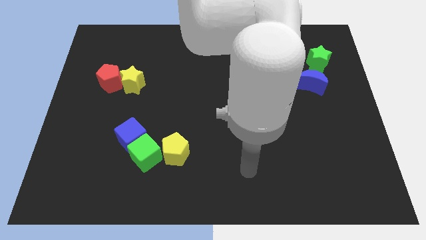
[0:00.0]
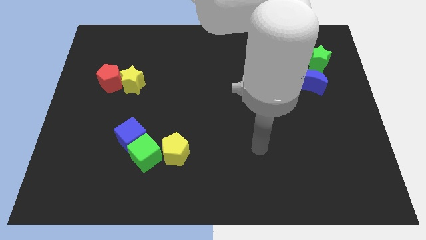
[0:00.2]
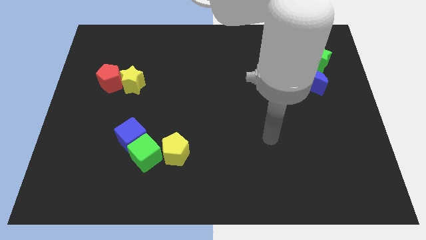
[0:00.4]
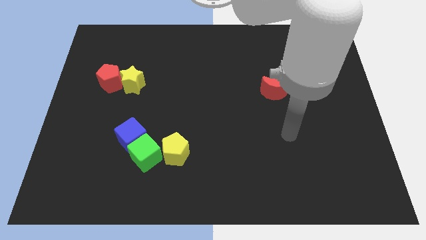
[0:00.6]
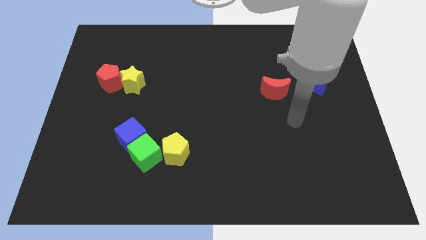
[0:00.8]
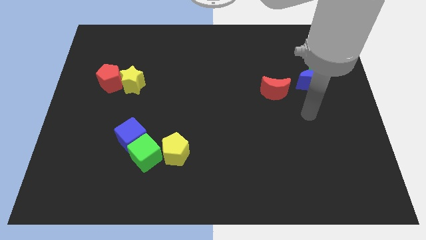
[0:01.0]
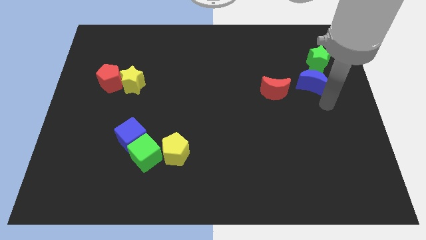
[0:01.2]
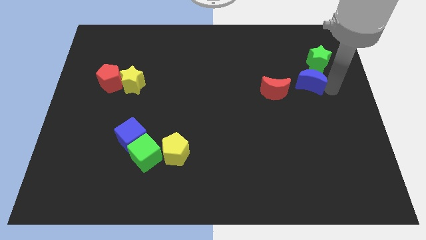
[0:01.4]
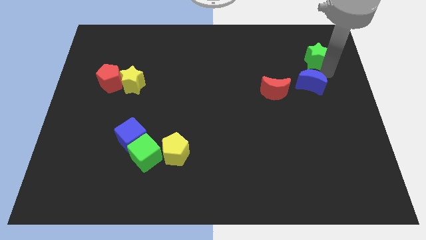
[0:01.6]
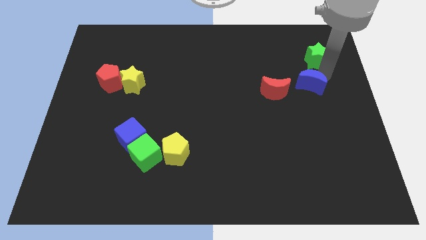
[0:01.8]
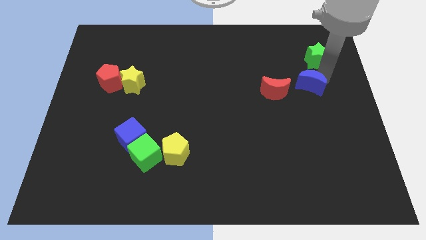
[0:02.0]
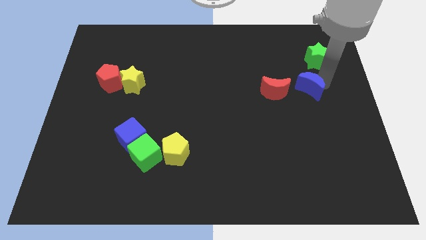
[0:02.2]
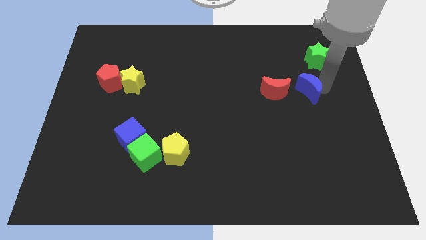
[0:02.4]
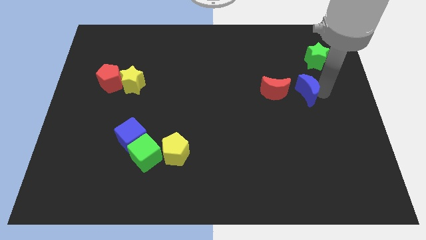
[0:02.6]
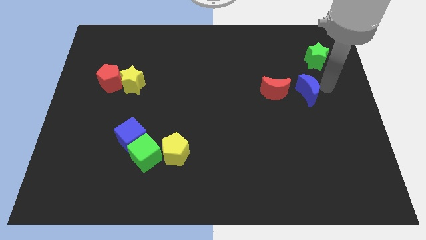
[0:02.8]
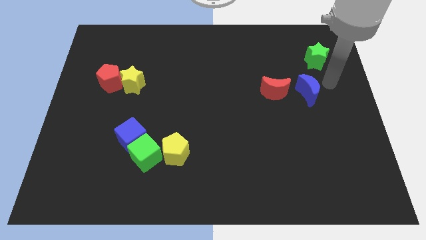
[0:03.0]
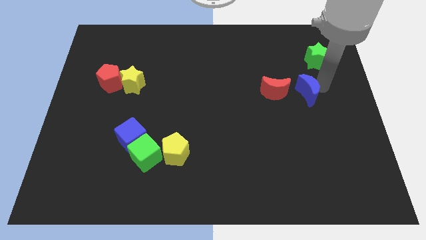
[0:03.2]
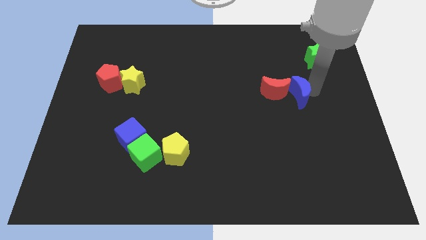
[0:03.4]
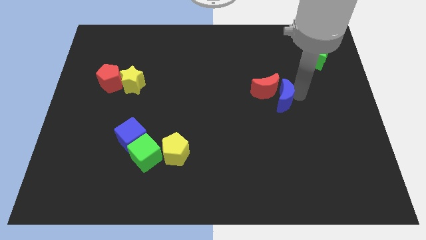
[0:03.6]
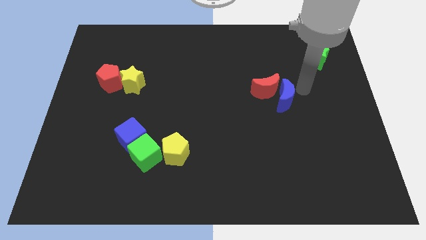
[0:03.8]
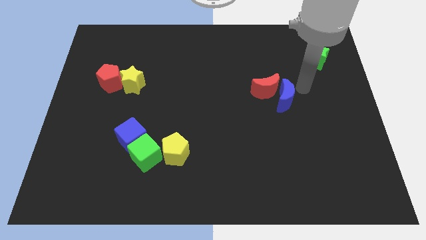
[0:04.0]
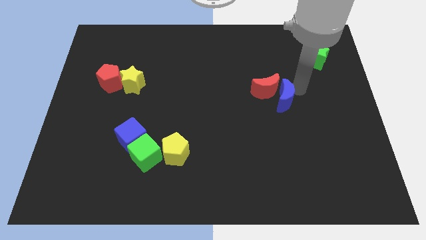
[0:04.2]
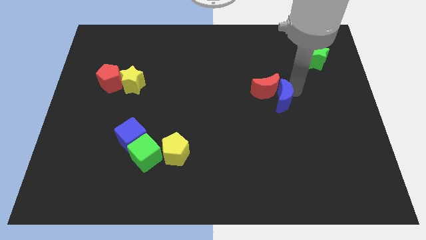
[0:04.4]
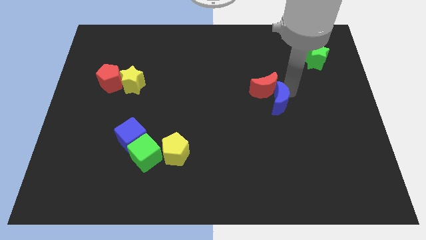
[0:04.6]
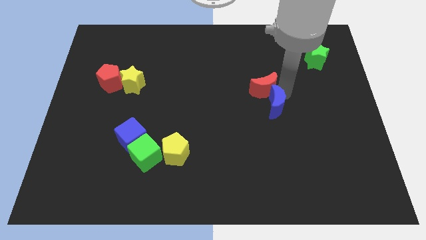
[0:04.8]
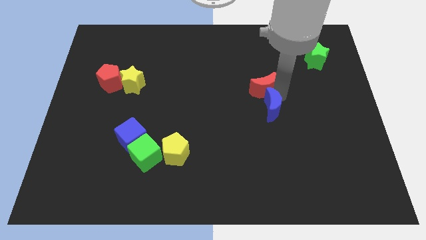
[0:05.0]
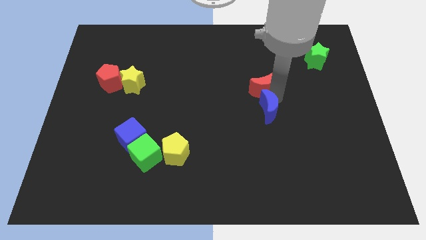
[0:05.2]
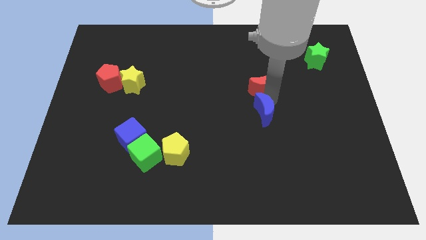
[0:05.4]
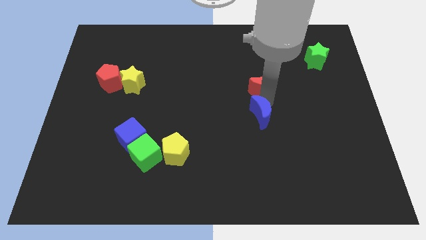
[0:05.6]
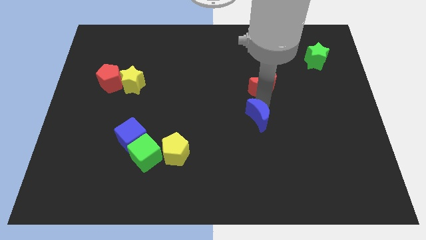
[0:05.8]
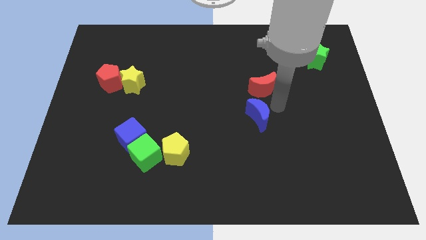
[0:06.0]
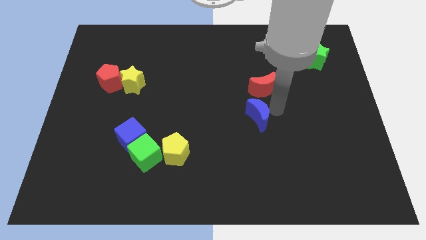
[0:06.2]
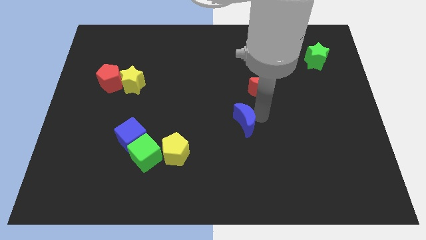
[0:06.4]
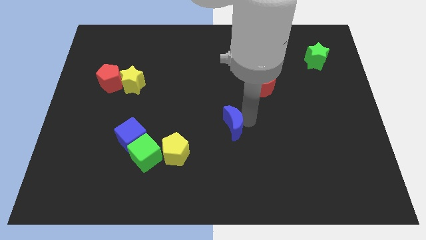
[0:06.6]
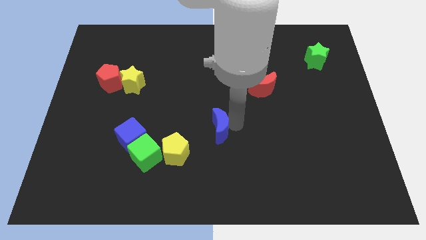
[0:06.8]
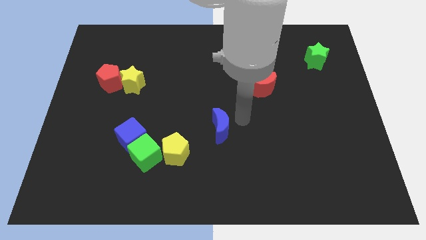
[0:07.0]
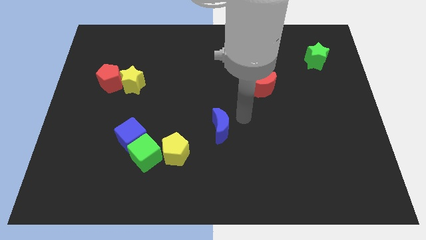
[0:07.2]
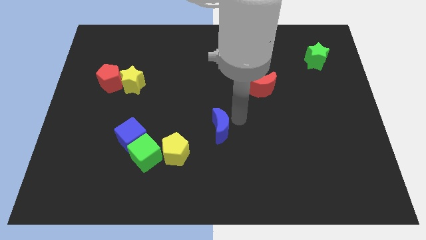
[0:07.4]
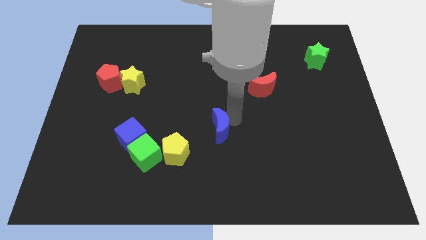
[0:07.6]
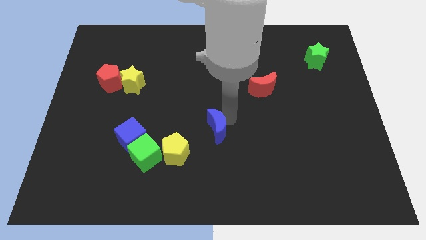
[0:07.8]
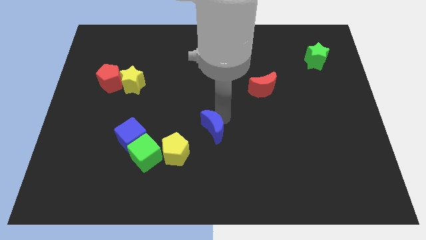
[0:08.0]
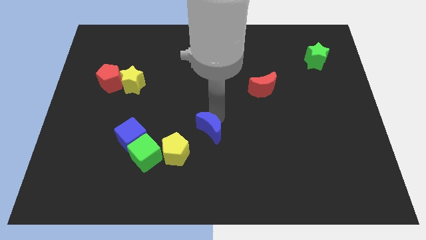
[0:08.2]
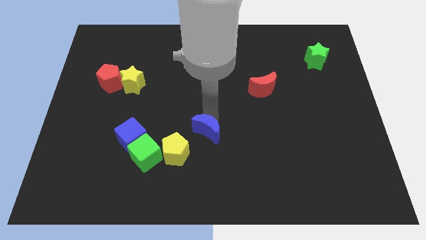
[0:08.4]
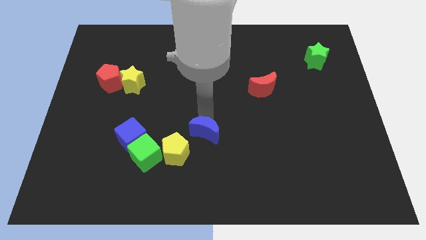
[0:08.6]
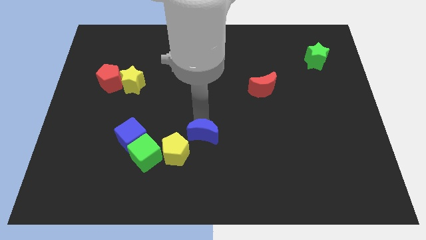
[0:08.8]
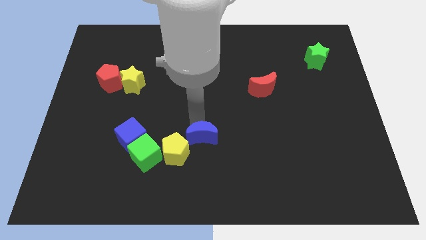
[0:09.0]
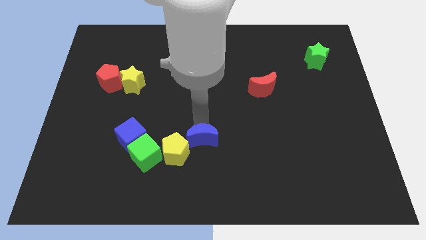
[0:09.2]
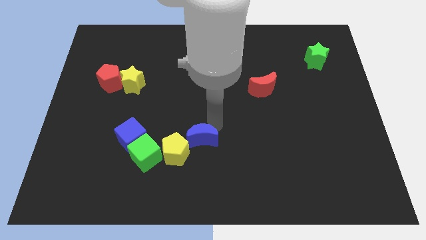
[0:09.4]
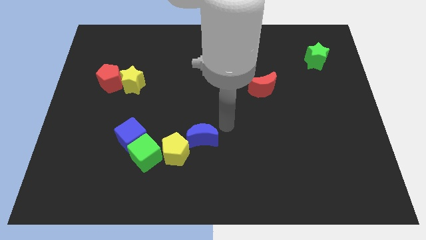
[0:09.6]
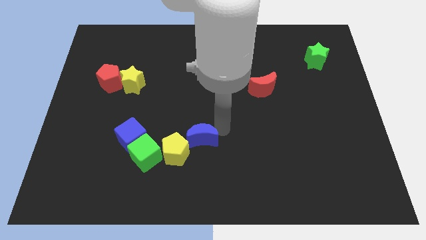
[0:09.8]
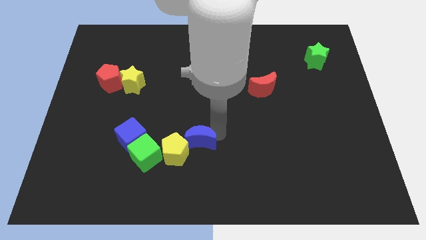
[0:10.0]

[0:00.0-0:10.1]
put the blue moon to the yellow pentagon

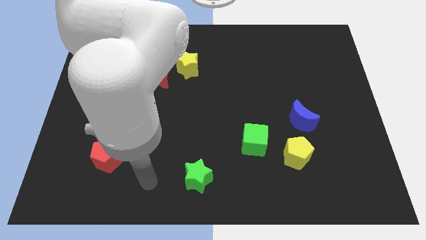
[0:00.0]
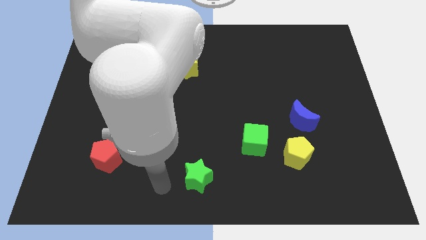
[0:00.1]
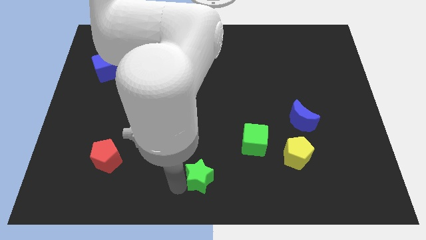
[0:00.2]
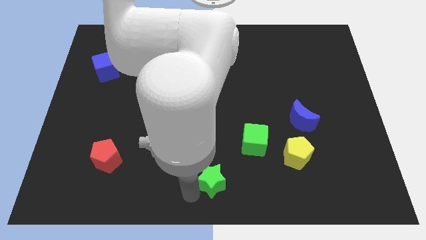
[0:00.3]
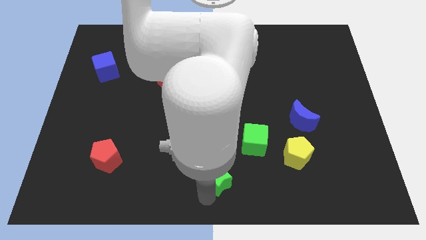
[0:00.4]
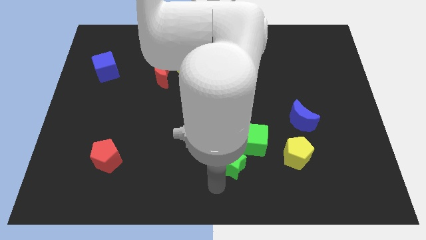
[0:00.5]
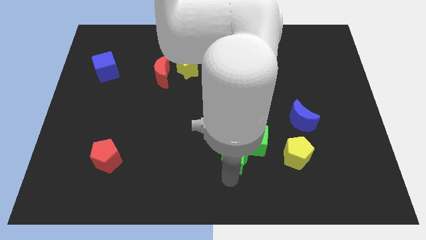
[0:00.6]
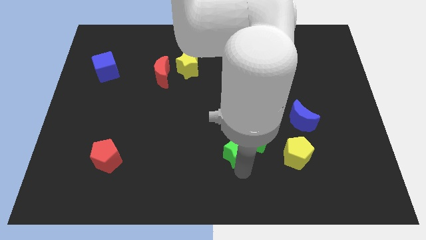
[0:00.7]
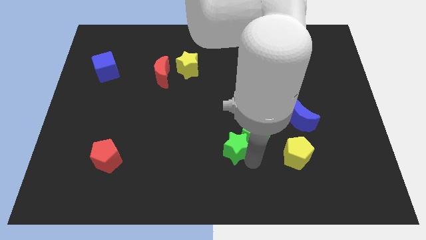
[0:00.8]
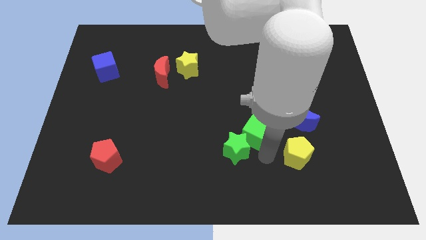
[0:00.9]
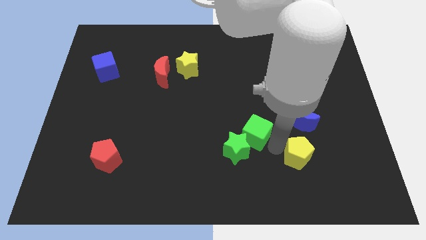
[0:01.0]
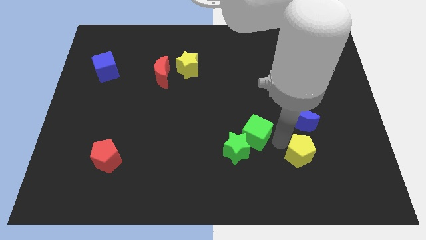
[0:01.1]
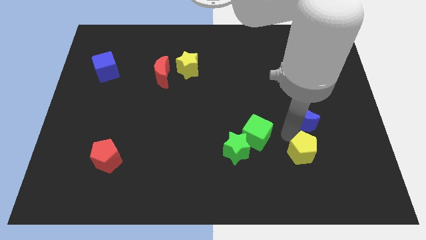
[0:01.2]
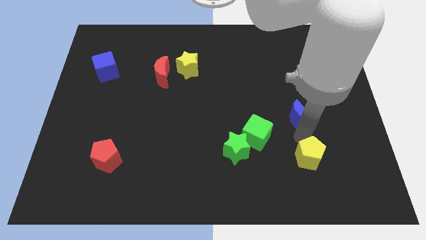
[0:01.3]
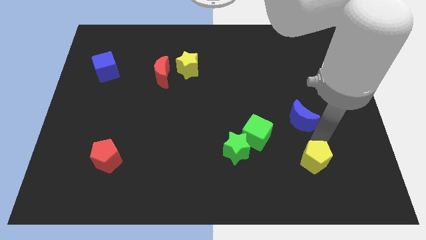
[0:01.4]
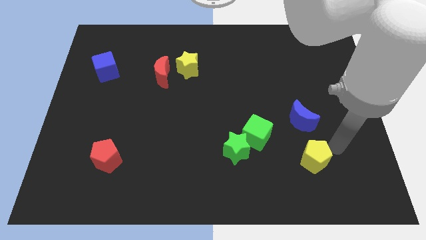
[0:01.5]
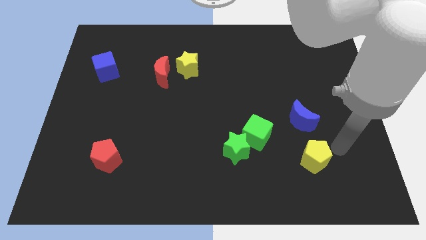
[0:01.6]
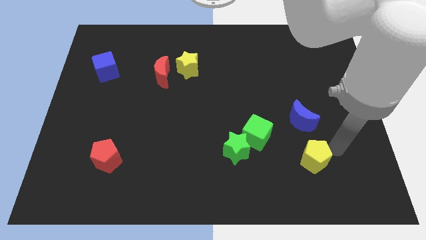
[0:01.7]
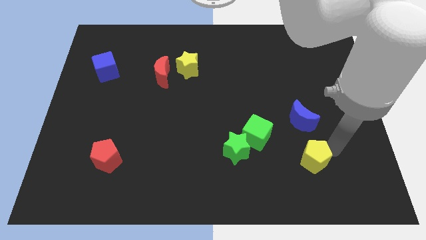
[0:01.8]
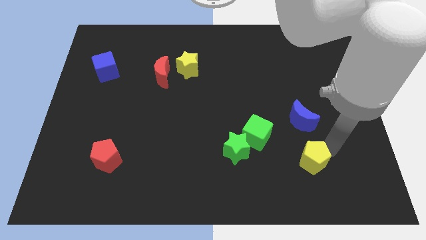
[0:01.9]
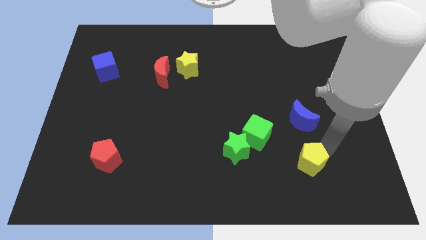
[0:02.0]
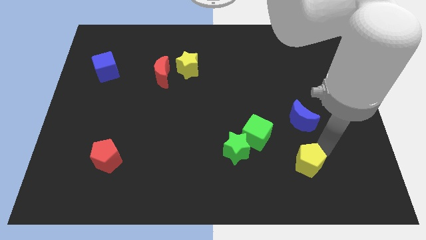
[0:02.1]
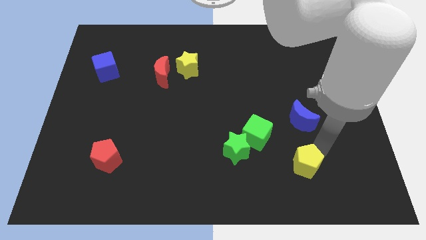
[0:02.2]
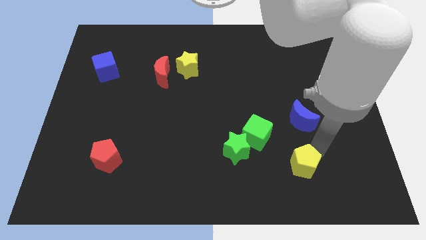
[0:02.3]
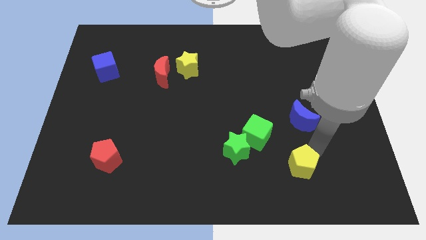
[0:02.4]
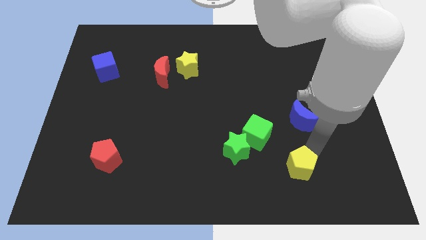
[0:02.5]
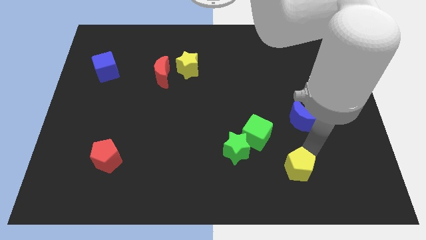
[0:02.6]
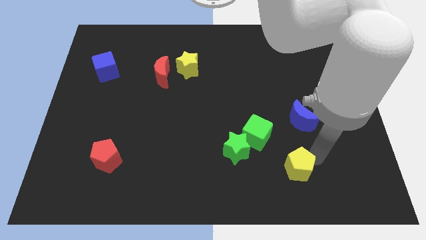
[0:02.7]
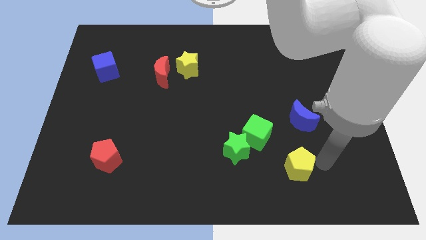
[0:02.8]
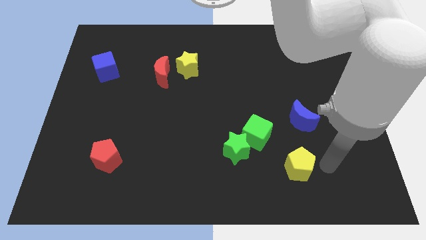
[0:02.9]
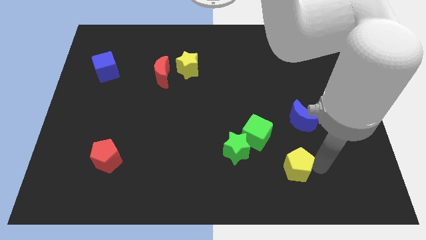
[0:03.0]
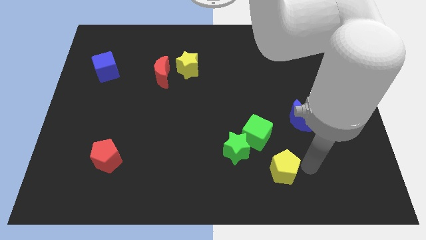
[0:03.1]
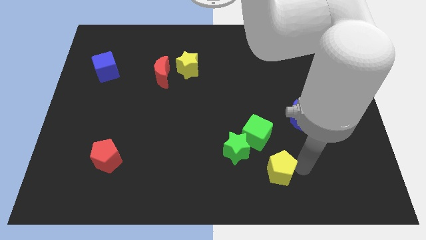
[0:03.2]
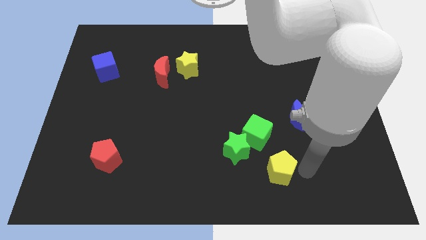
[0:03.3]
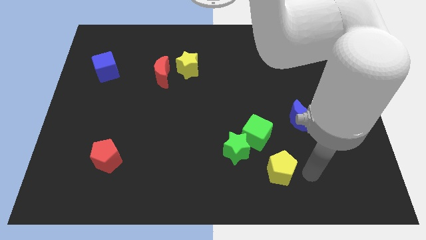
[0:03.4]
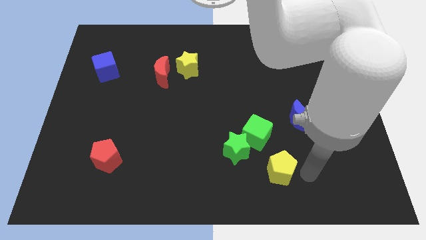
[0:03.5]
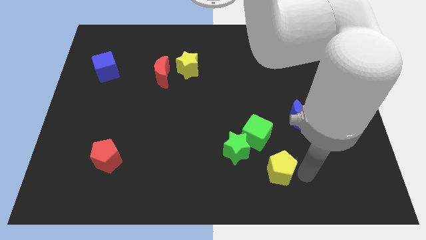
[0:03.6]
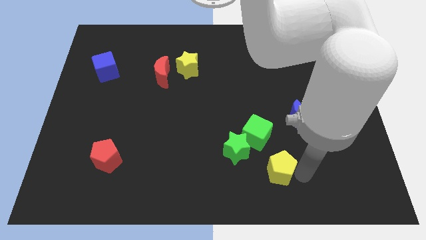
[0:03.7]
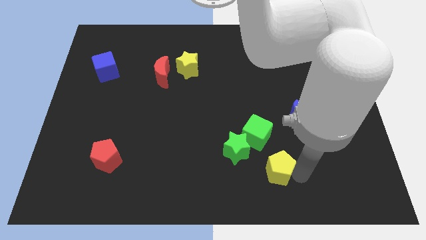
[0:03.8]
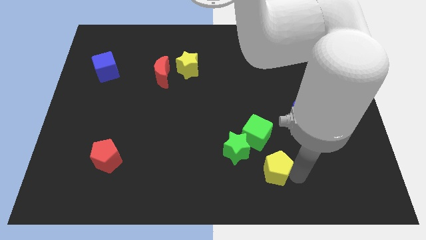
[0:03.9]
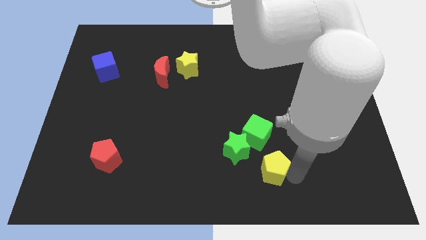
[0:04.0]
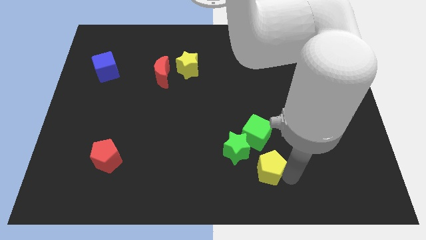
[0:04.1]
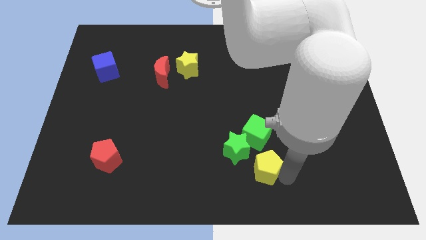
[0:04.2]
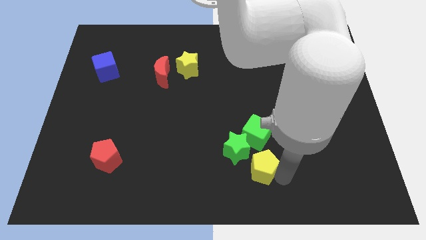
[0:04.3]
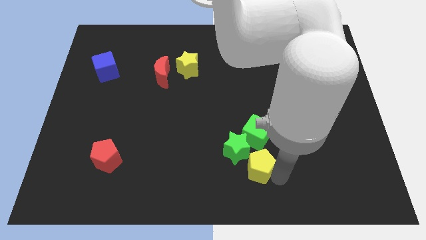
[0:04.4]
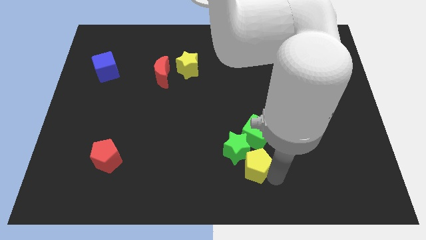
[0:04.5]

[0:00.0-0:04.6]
push the yellow pentagon next to the green star
